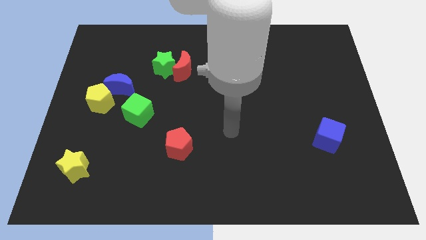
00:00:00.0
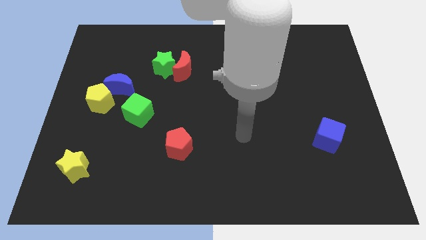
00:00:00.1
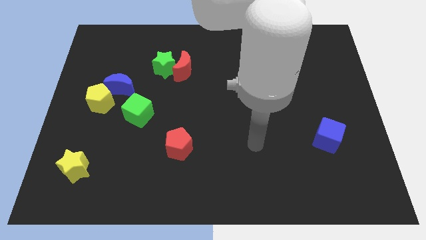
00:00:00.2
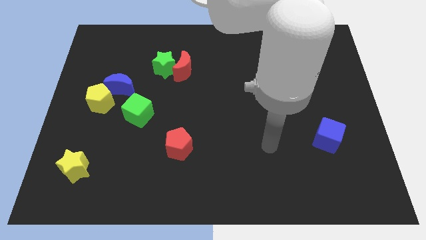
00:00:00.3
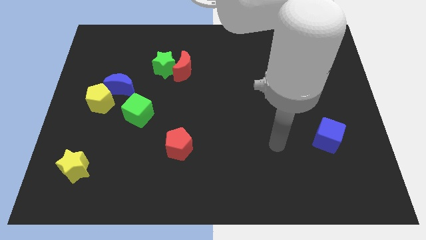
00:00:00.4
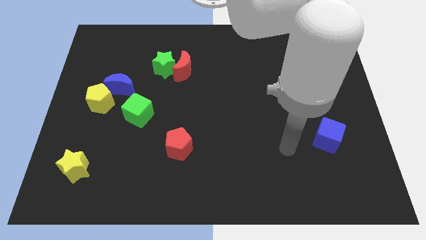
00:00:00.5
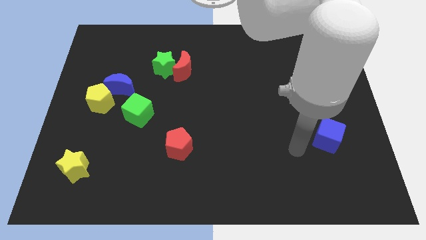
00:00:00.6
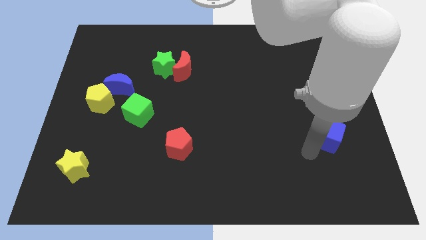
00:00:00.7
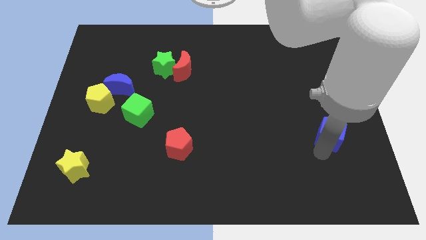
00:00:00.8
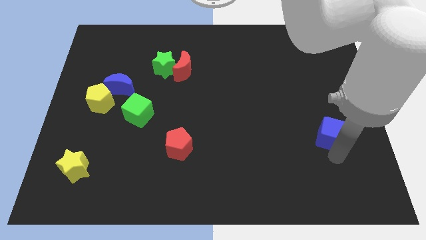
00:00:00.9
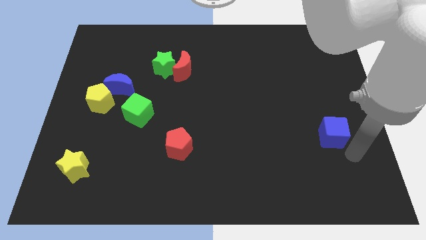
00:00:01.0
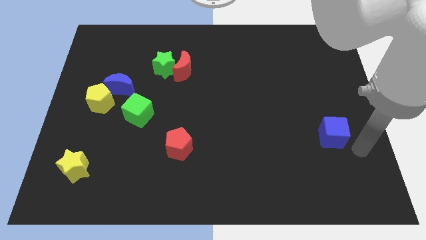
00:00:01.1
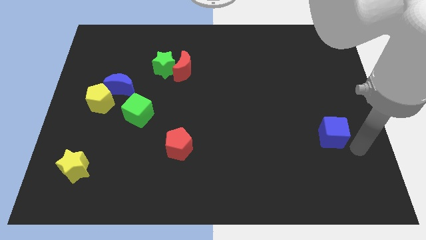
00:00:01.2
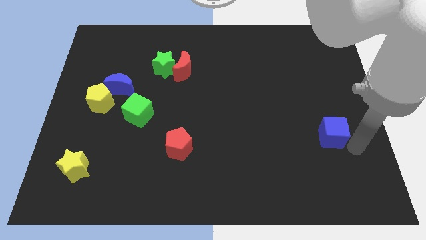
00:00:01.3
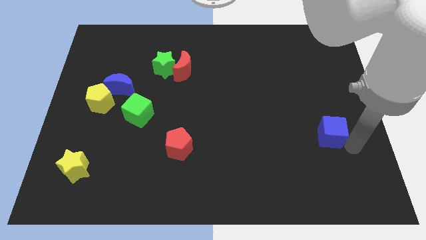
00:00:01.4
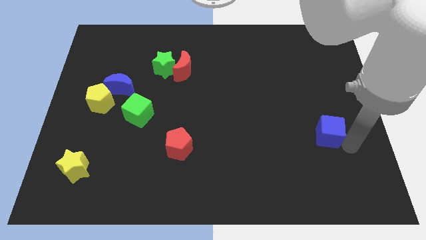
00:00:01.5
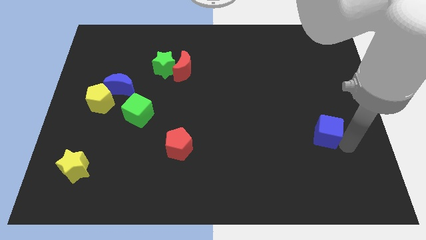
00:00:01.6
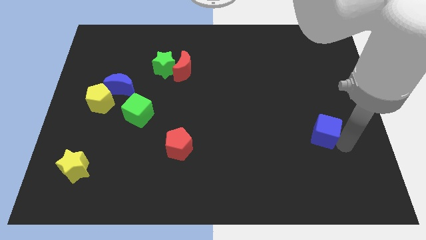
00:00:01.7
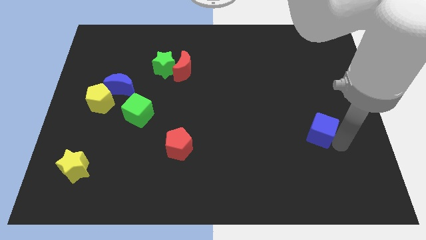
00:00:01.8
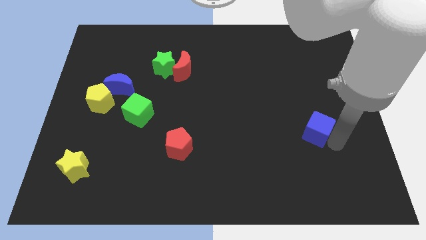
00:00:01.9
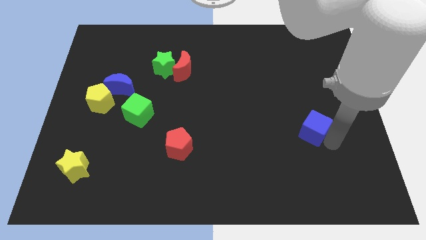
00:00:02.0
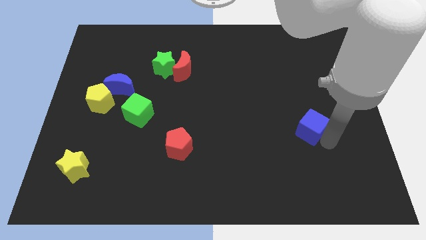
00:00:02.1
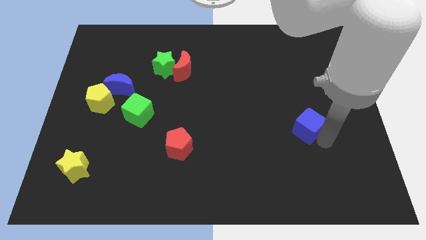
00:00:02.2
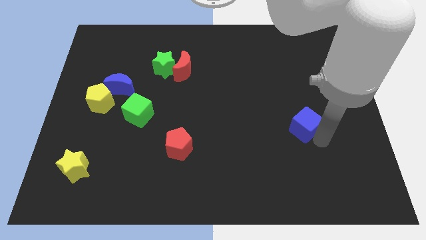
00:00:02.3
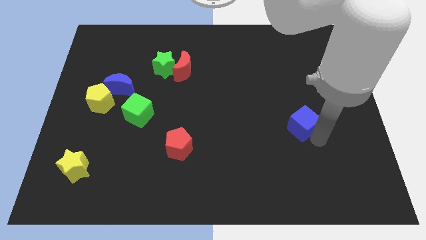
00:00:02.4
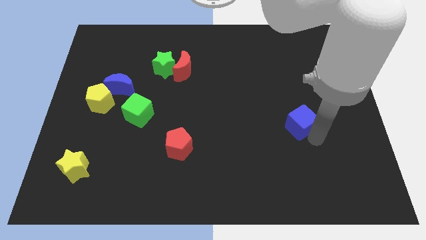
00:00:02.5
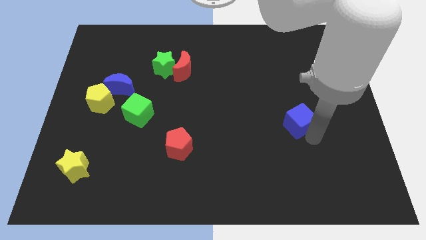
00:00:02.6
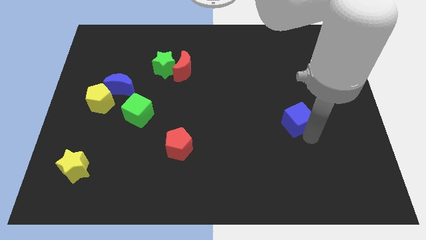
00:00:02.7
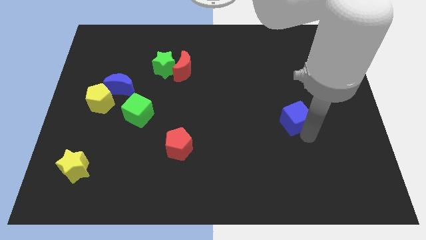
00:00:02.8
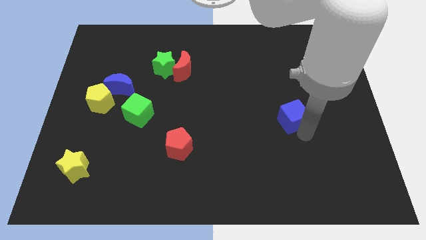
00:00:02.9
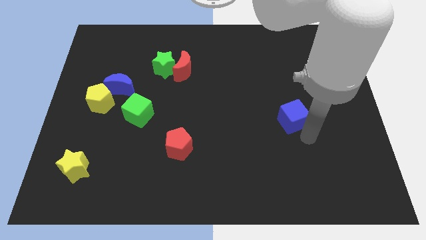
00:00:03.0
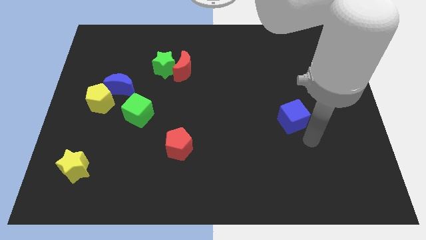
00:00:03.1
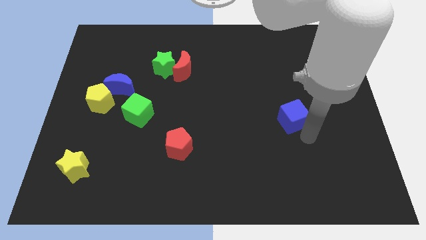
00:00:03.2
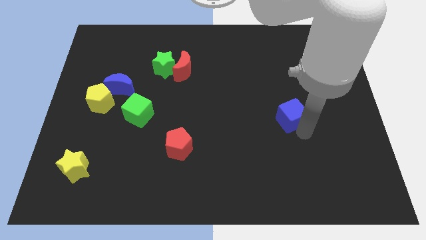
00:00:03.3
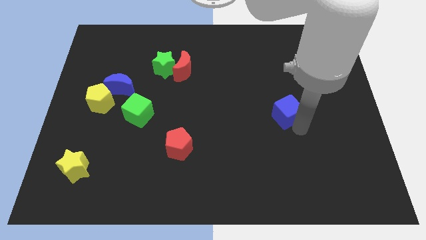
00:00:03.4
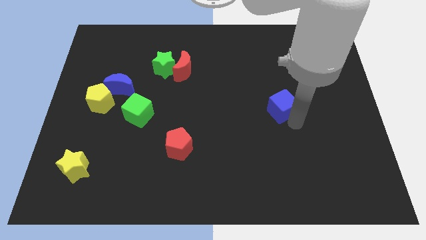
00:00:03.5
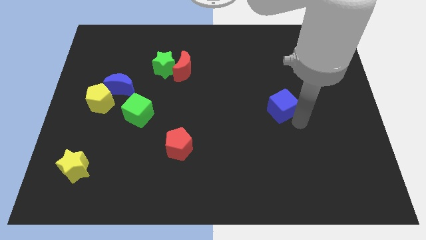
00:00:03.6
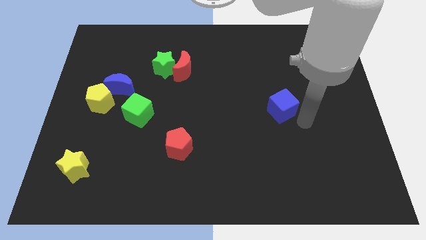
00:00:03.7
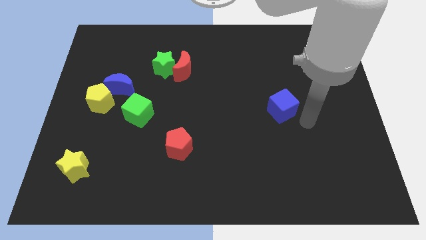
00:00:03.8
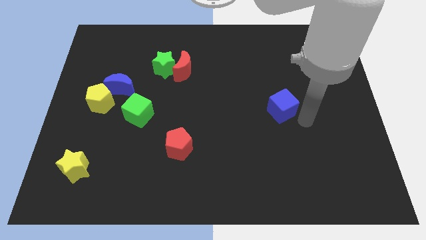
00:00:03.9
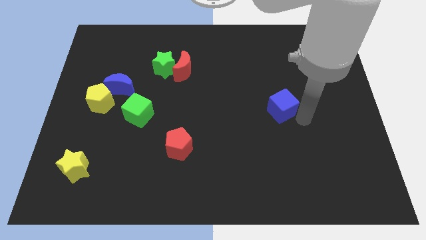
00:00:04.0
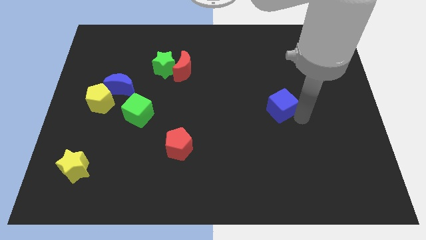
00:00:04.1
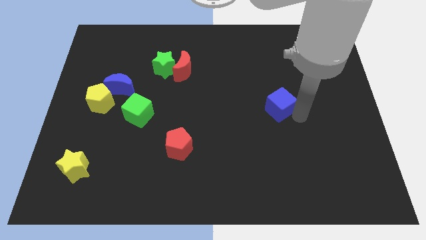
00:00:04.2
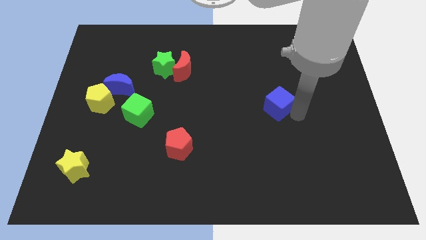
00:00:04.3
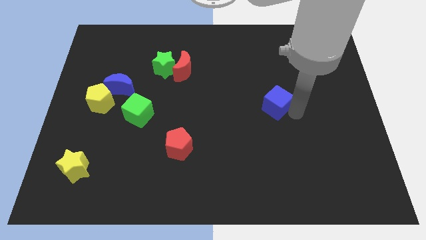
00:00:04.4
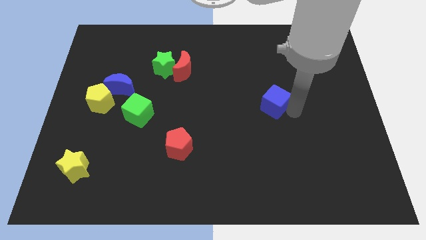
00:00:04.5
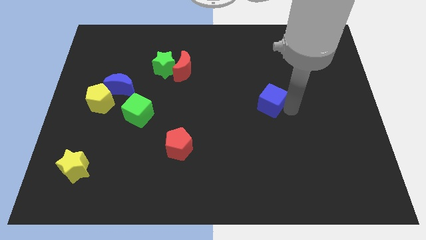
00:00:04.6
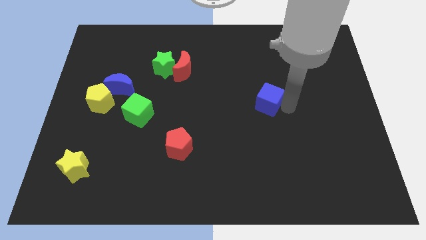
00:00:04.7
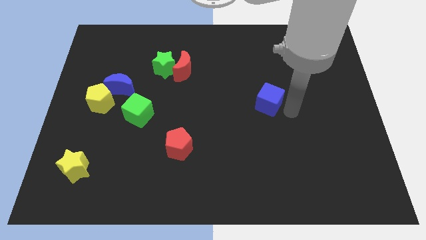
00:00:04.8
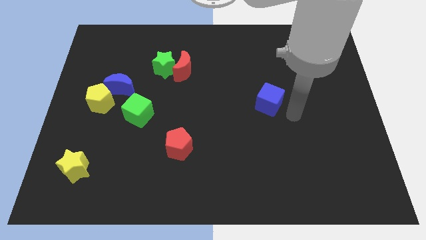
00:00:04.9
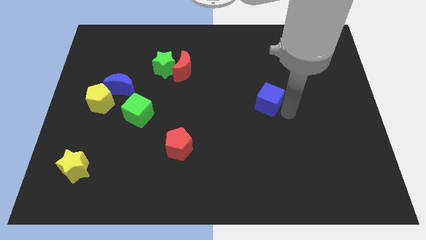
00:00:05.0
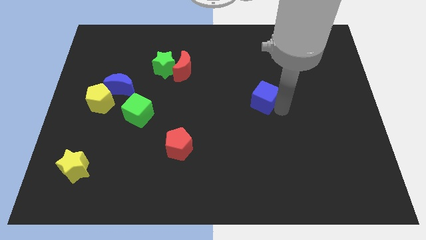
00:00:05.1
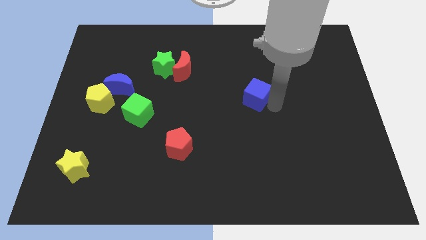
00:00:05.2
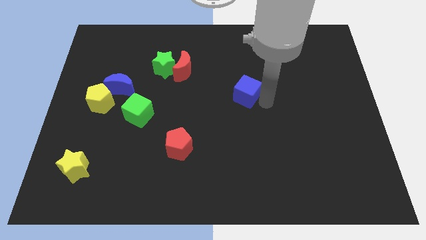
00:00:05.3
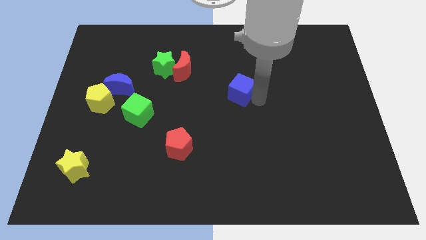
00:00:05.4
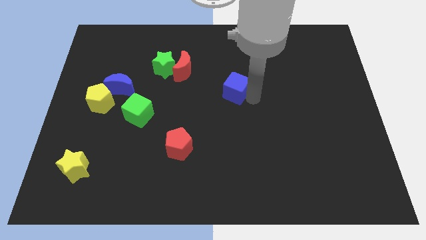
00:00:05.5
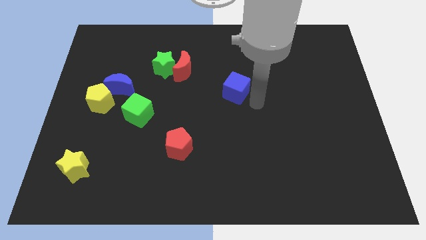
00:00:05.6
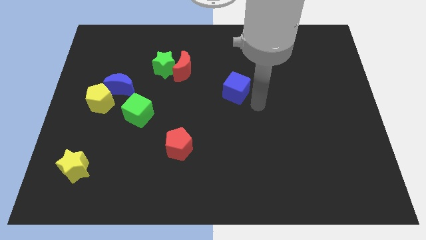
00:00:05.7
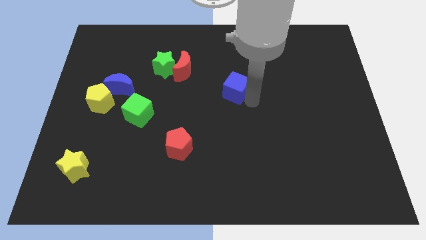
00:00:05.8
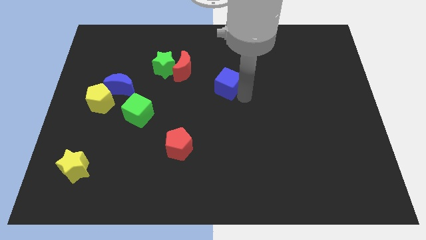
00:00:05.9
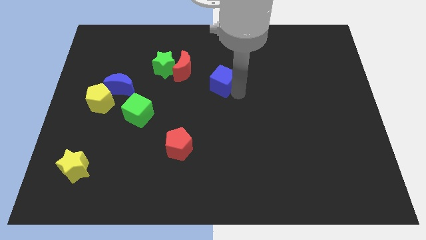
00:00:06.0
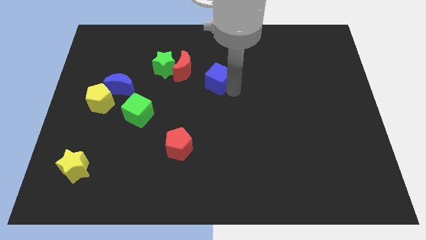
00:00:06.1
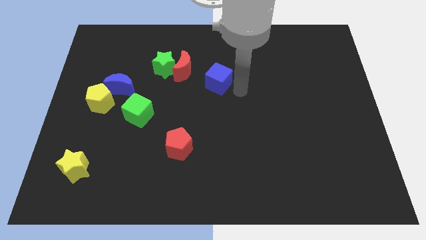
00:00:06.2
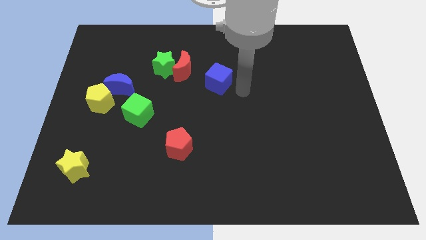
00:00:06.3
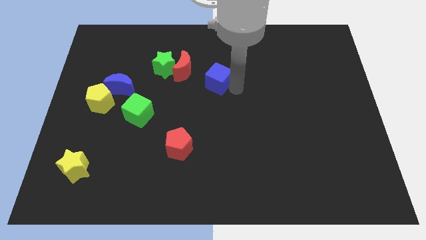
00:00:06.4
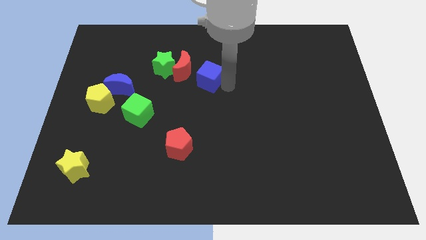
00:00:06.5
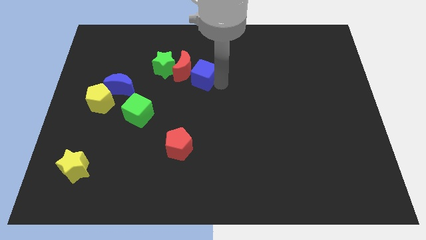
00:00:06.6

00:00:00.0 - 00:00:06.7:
move the blue cube towards the red moon

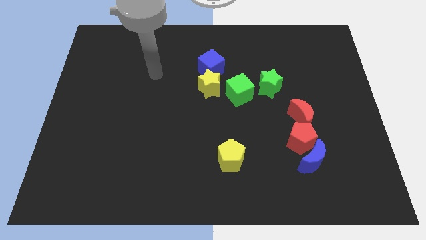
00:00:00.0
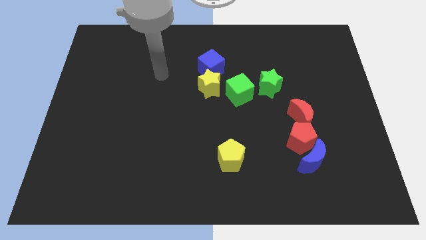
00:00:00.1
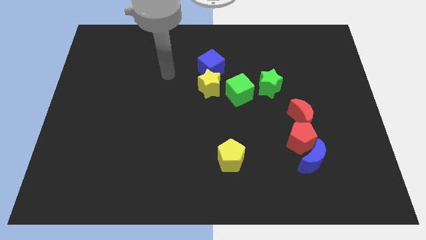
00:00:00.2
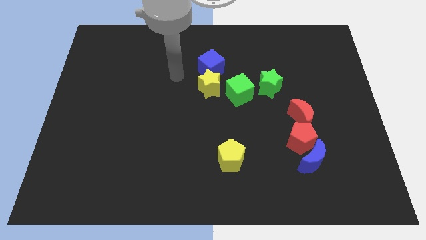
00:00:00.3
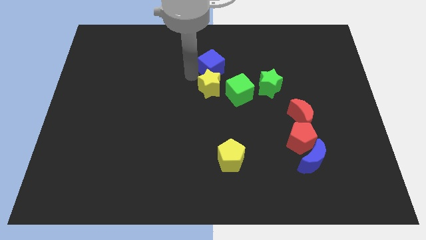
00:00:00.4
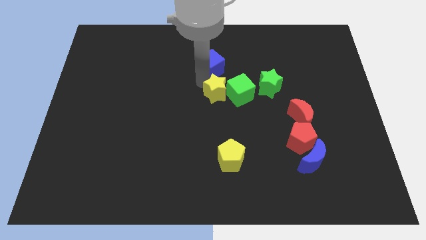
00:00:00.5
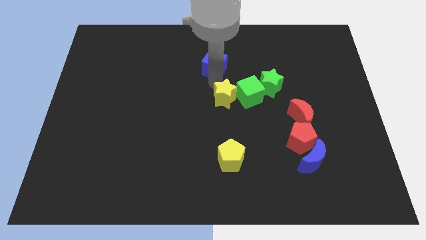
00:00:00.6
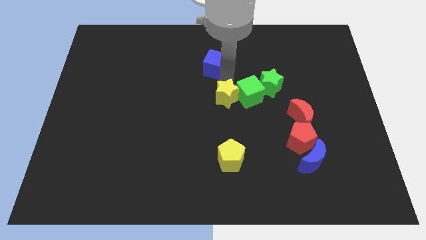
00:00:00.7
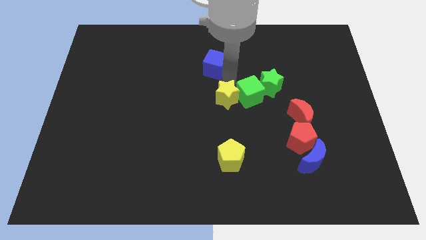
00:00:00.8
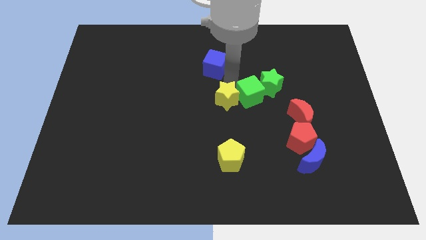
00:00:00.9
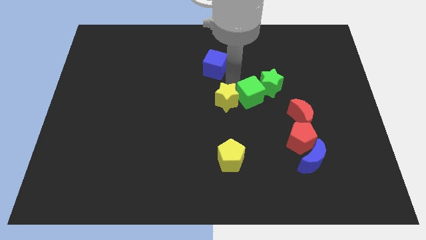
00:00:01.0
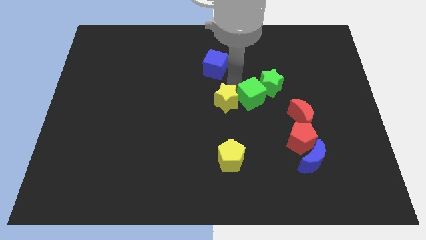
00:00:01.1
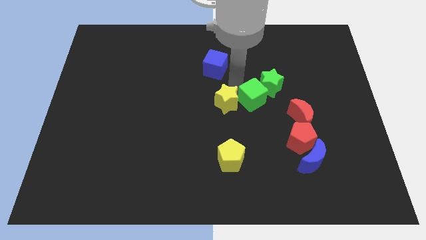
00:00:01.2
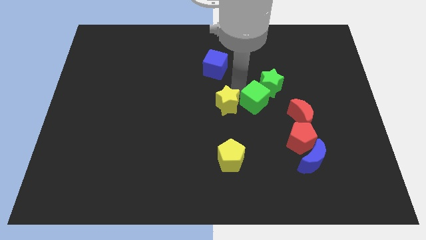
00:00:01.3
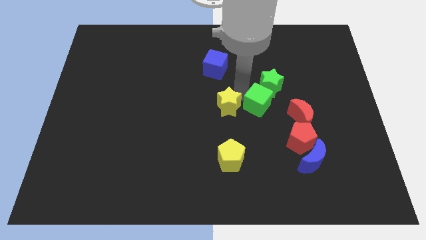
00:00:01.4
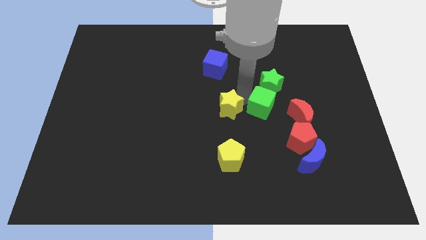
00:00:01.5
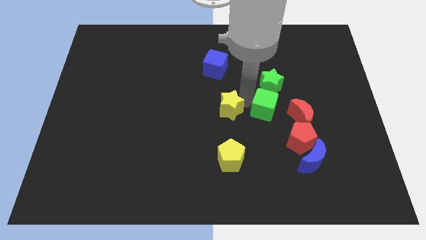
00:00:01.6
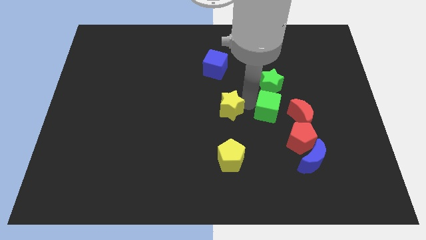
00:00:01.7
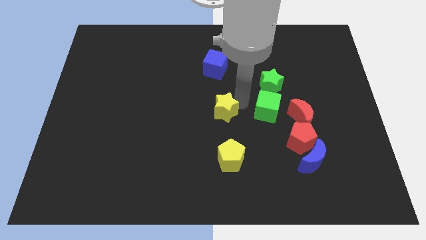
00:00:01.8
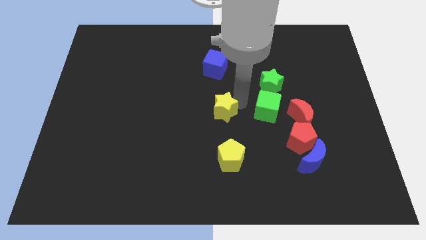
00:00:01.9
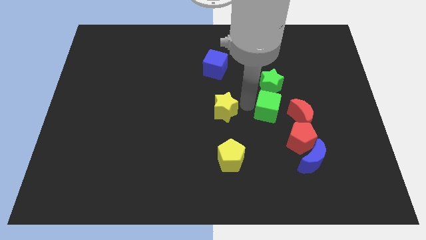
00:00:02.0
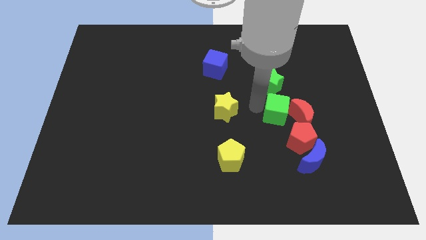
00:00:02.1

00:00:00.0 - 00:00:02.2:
slide the green cube close to the red moon
